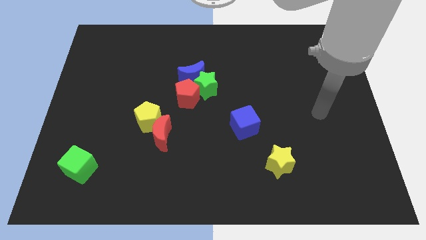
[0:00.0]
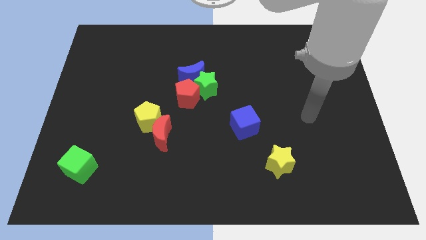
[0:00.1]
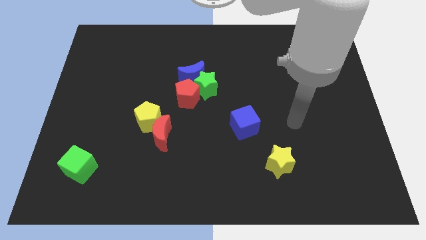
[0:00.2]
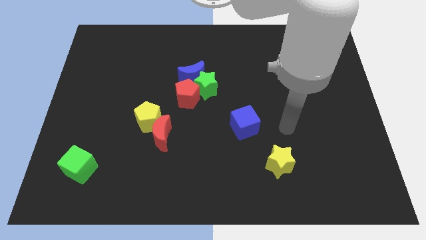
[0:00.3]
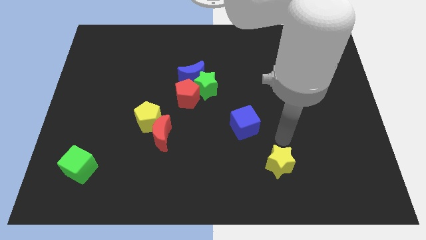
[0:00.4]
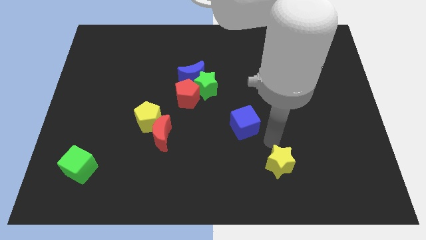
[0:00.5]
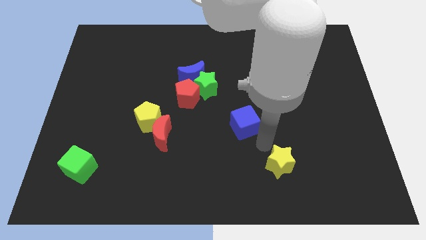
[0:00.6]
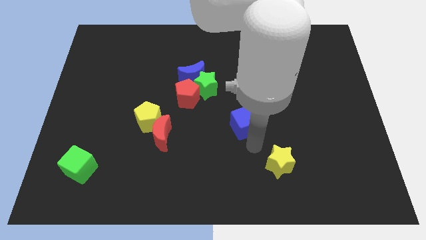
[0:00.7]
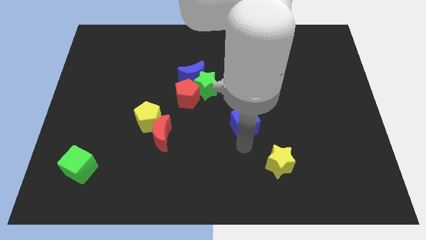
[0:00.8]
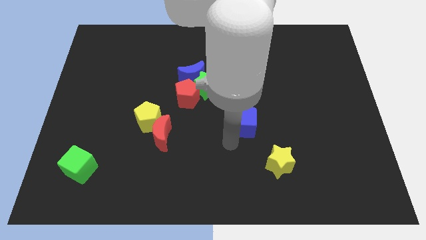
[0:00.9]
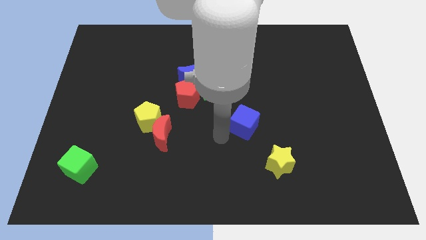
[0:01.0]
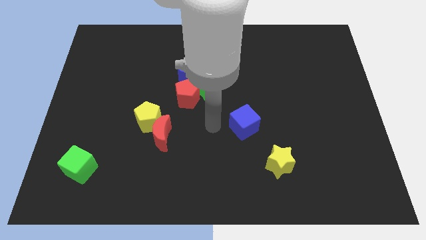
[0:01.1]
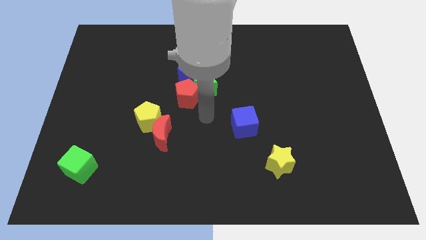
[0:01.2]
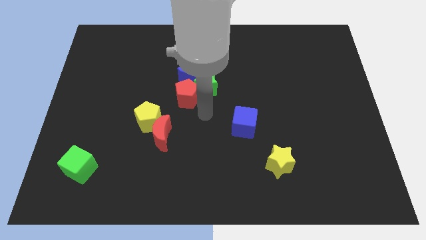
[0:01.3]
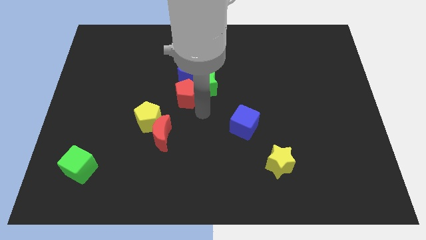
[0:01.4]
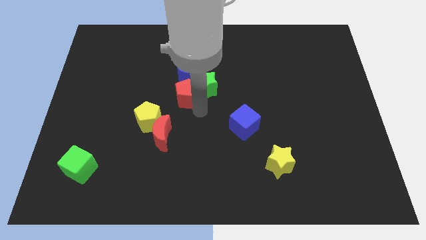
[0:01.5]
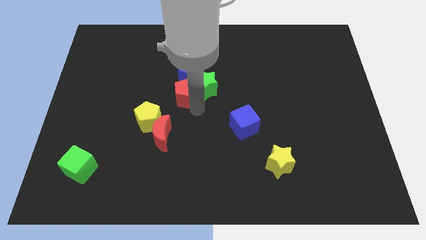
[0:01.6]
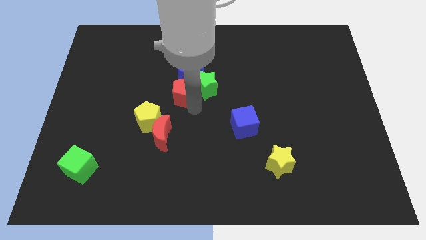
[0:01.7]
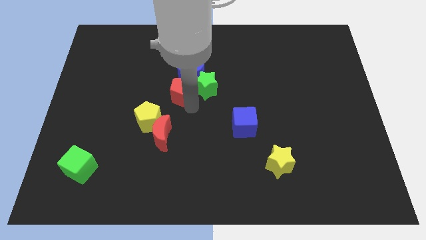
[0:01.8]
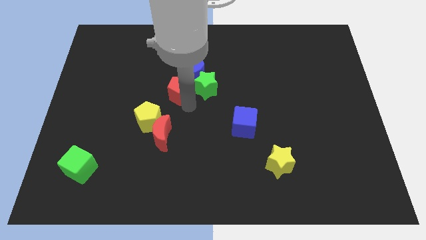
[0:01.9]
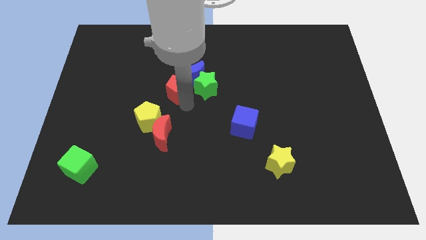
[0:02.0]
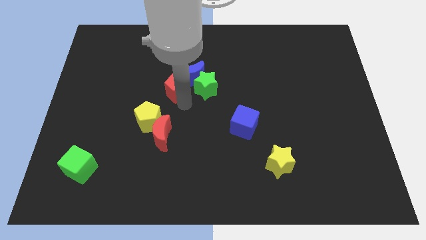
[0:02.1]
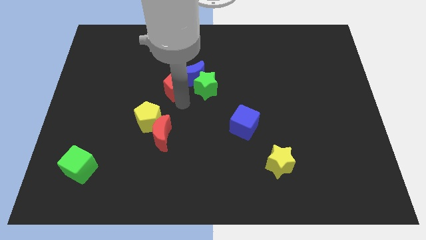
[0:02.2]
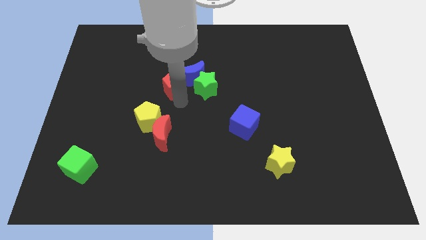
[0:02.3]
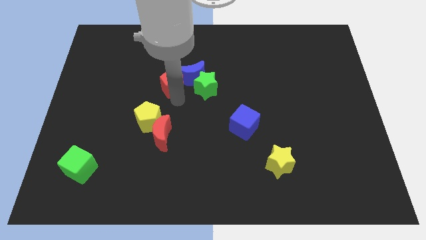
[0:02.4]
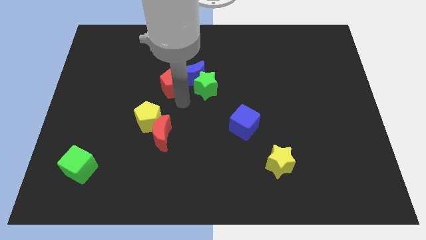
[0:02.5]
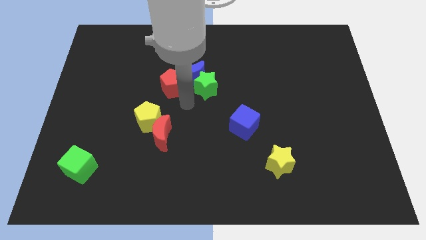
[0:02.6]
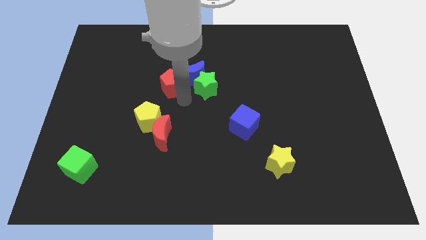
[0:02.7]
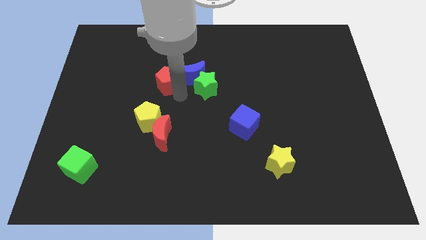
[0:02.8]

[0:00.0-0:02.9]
slightly push the red pentagon up and left

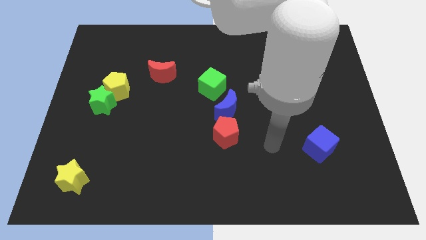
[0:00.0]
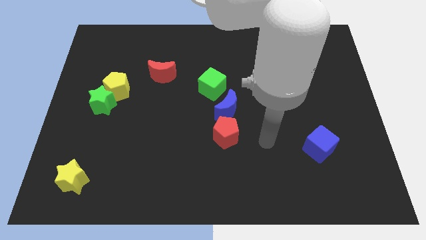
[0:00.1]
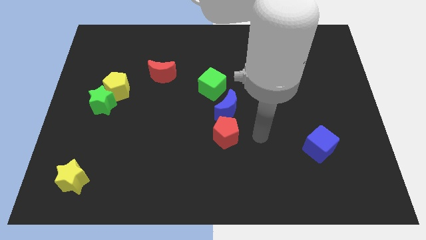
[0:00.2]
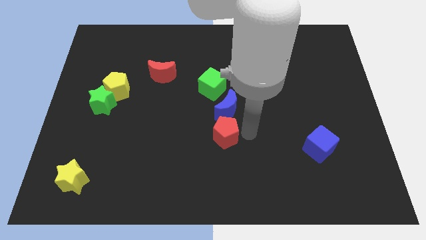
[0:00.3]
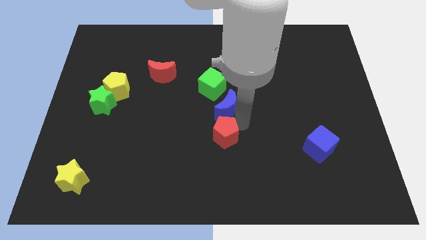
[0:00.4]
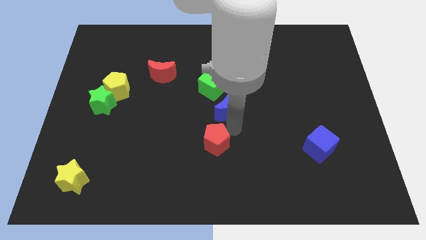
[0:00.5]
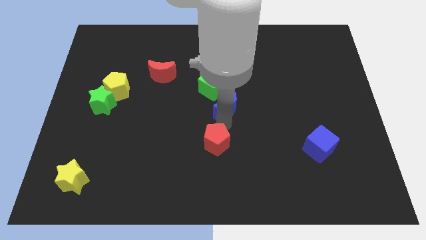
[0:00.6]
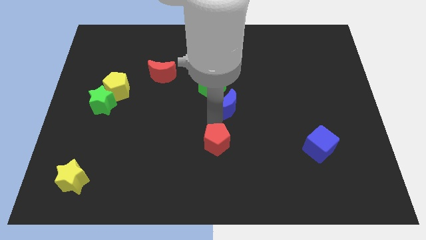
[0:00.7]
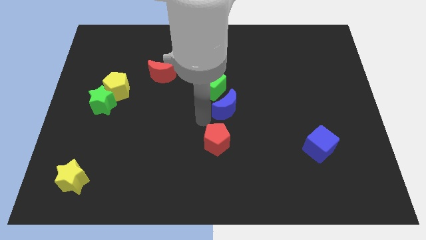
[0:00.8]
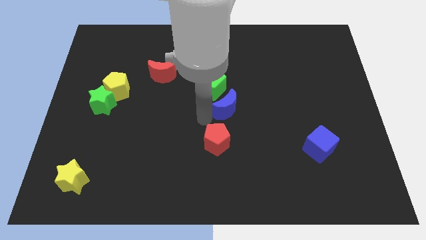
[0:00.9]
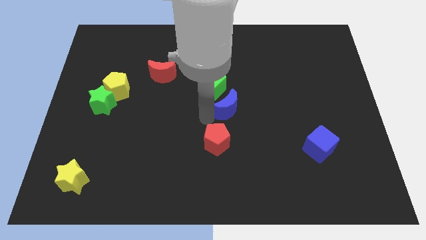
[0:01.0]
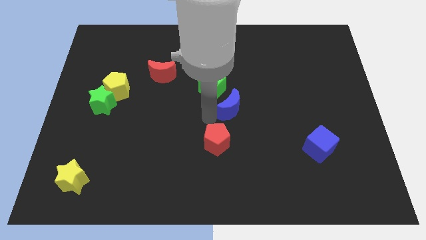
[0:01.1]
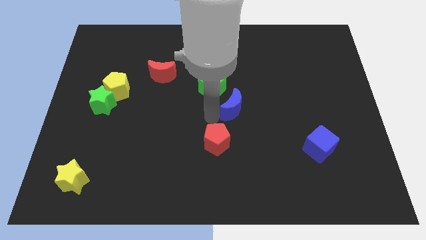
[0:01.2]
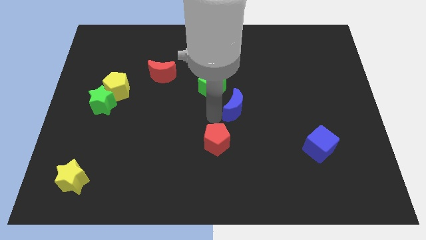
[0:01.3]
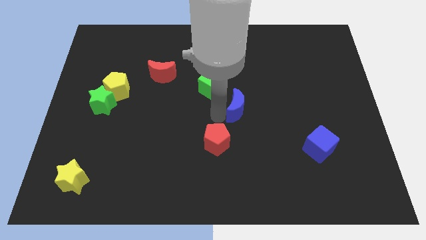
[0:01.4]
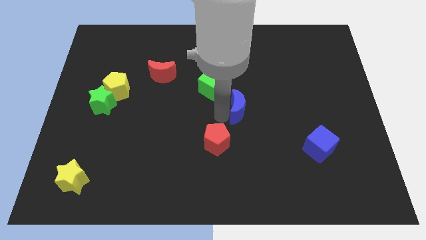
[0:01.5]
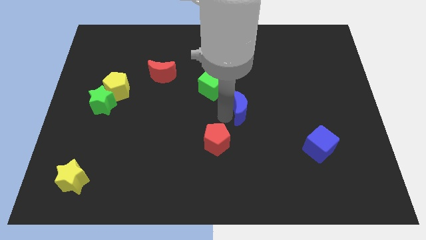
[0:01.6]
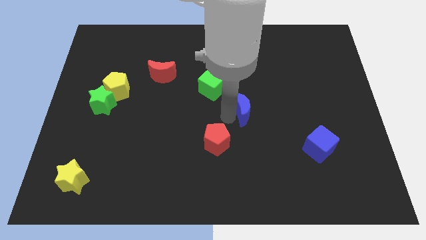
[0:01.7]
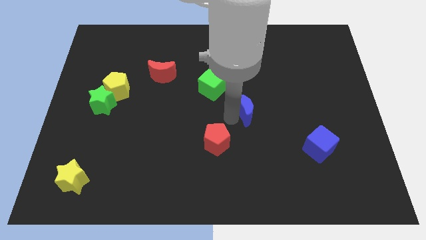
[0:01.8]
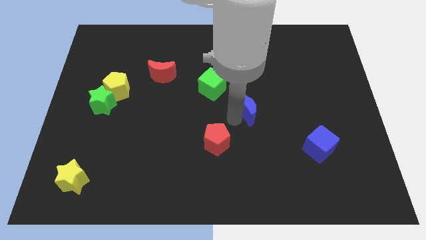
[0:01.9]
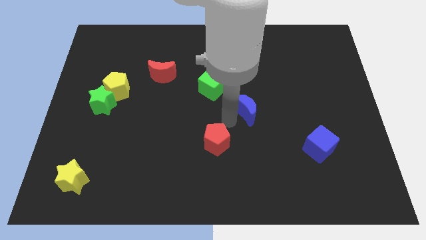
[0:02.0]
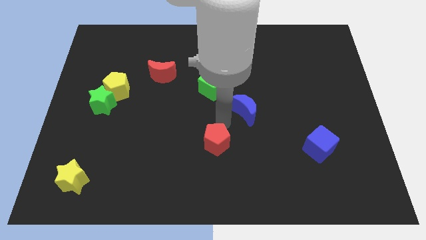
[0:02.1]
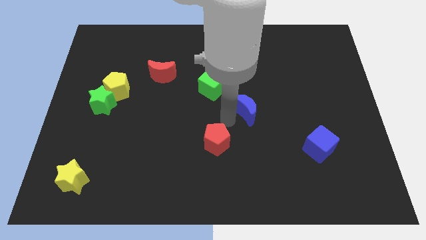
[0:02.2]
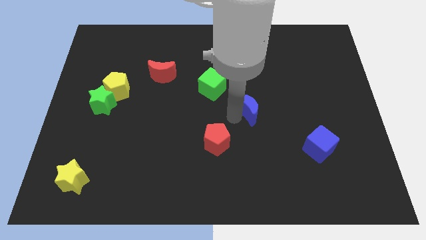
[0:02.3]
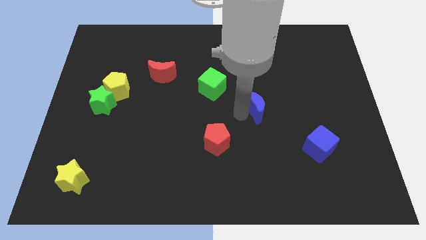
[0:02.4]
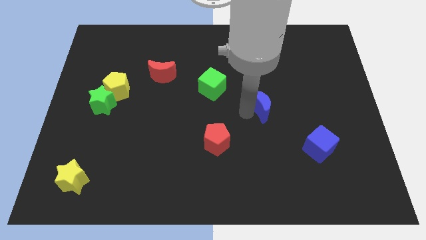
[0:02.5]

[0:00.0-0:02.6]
slightly slide the blue moon right

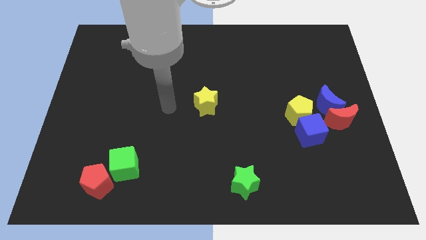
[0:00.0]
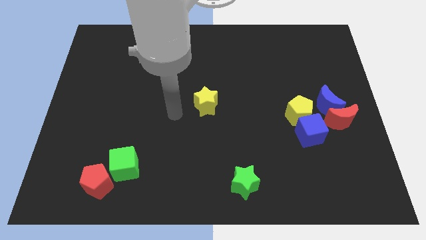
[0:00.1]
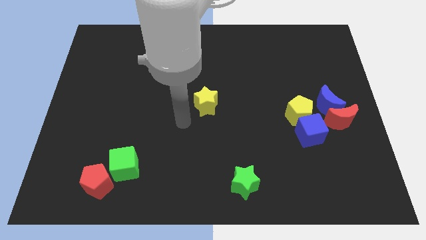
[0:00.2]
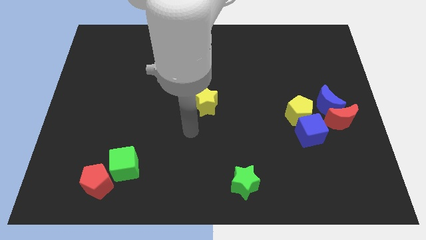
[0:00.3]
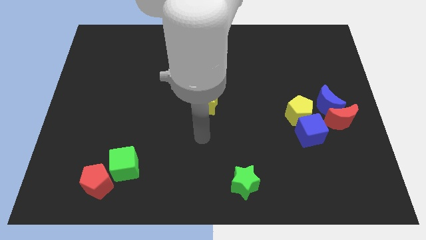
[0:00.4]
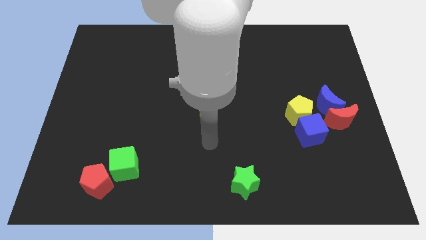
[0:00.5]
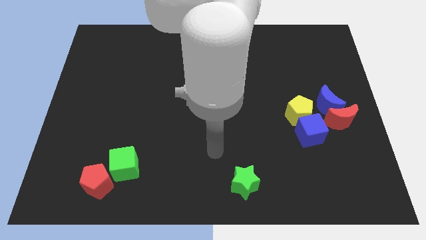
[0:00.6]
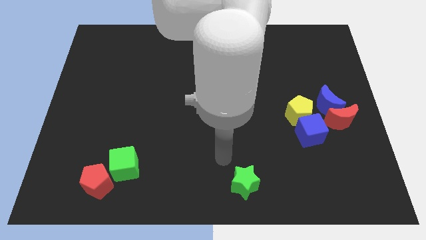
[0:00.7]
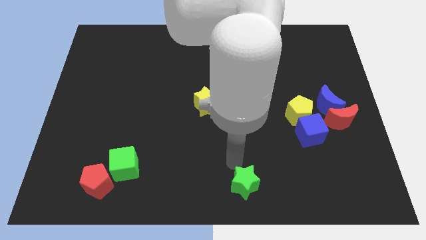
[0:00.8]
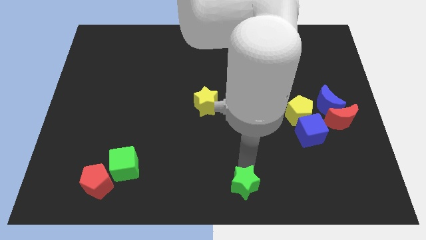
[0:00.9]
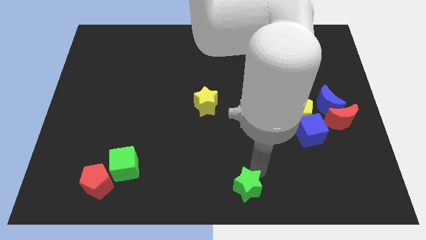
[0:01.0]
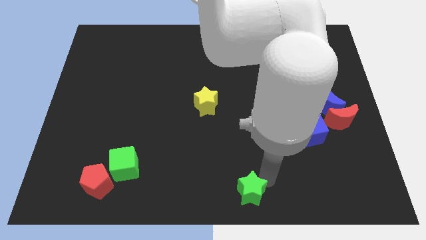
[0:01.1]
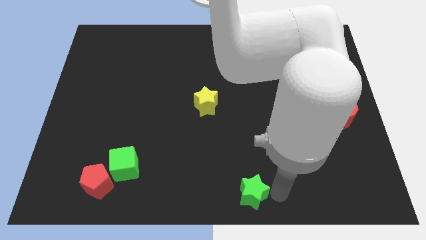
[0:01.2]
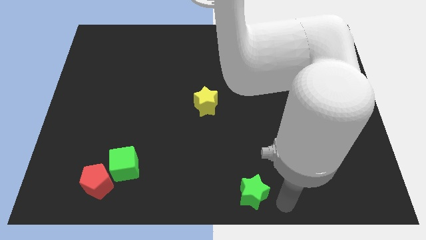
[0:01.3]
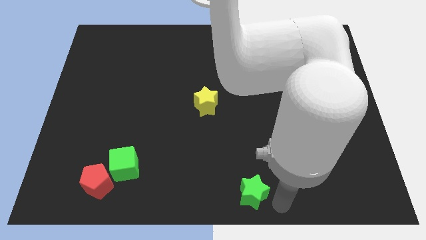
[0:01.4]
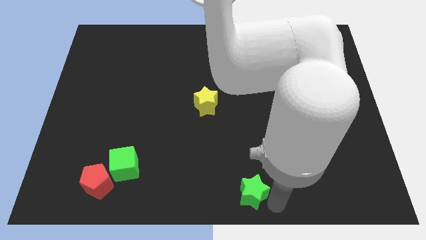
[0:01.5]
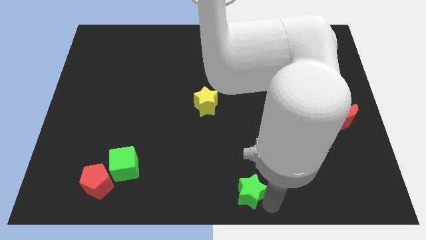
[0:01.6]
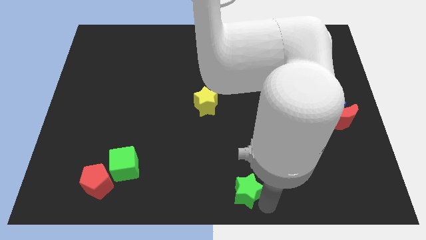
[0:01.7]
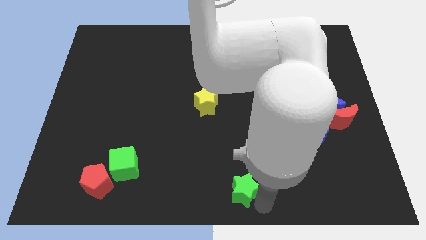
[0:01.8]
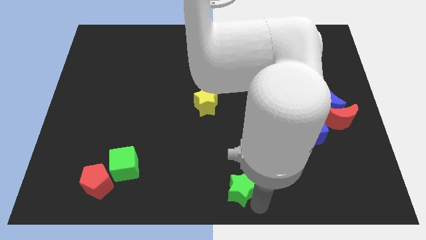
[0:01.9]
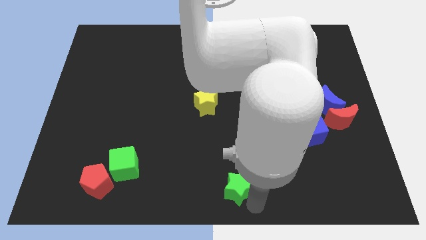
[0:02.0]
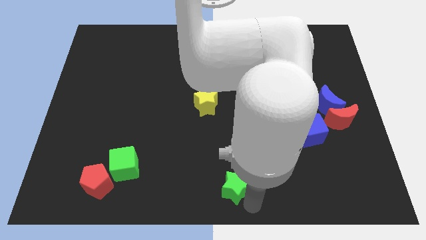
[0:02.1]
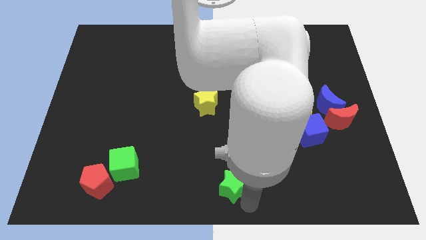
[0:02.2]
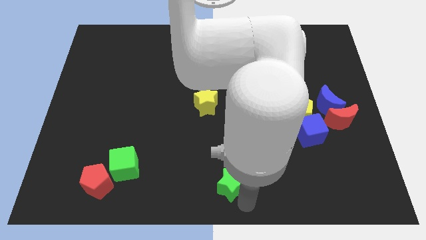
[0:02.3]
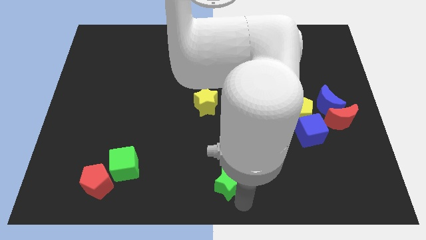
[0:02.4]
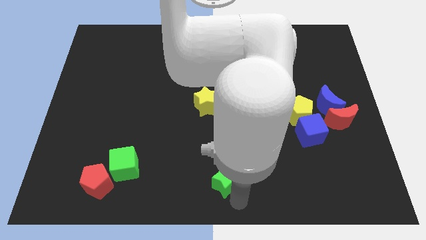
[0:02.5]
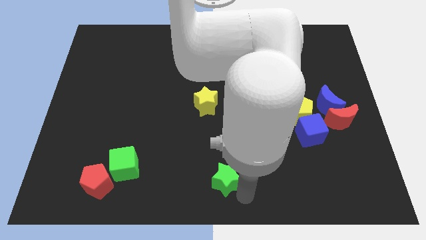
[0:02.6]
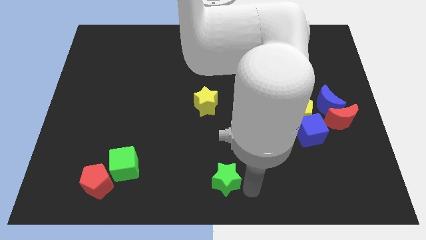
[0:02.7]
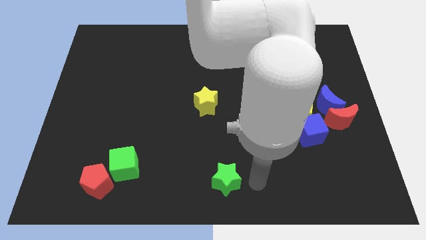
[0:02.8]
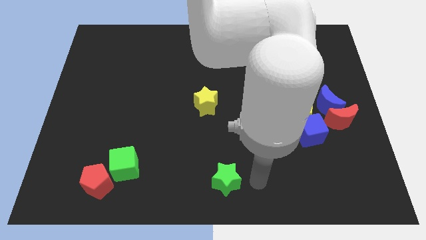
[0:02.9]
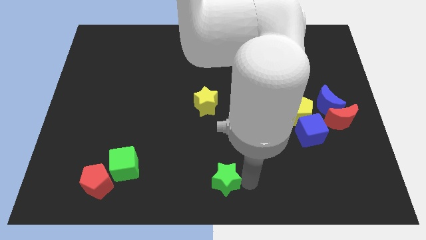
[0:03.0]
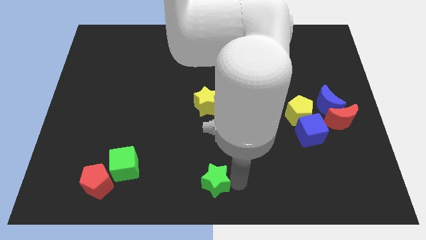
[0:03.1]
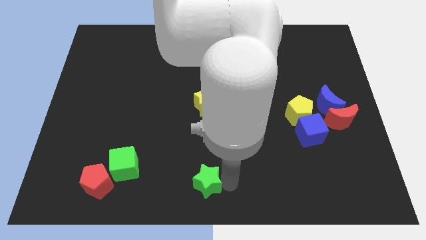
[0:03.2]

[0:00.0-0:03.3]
move the green star to the left a bit
